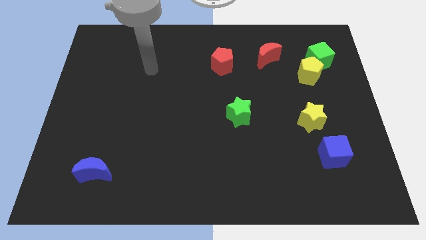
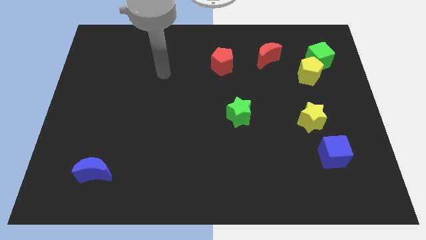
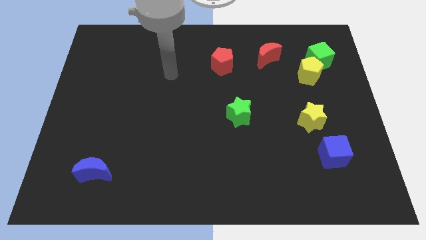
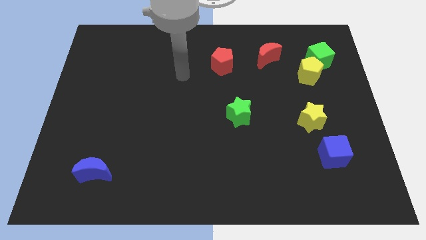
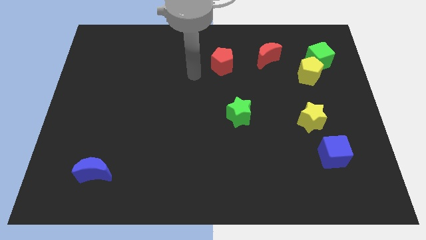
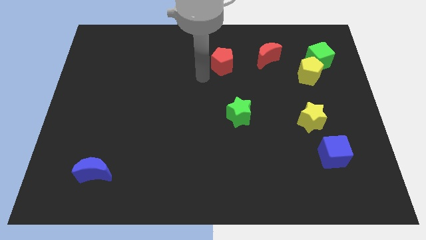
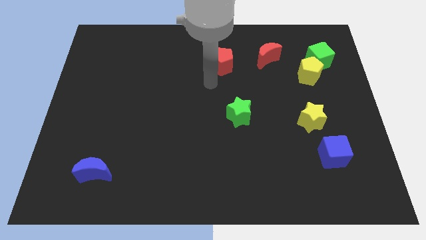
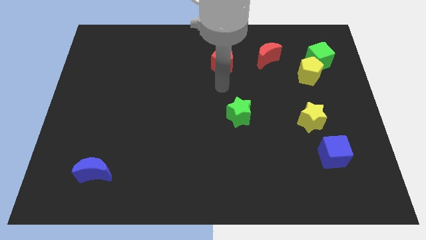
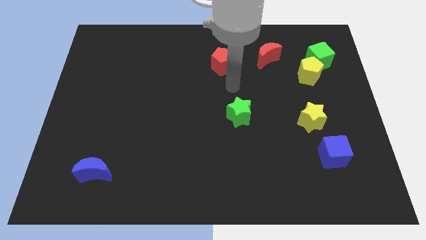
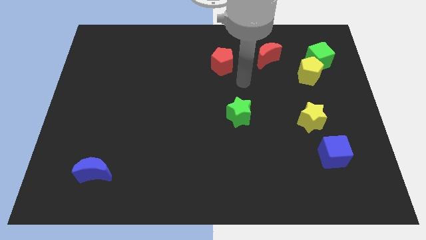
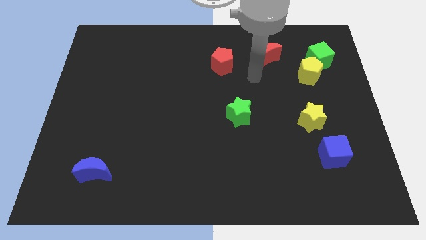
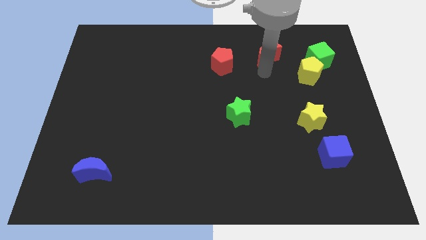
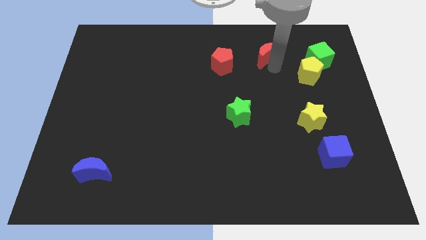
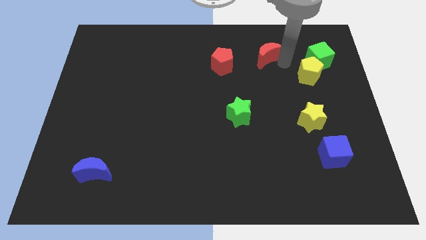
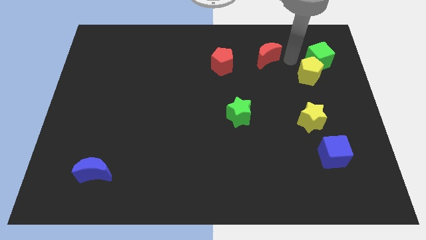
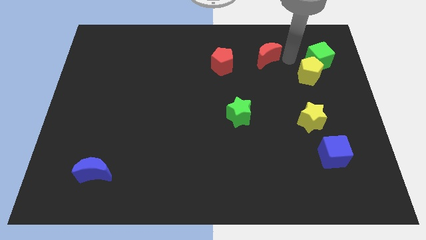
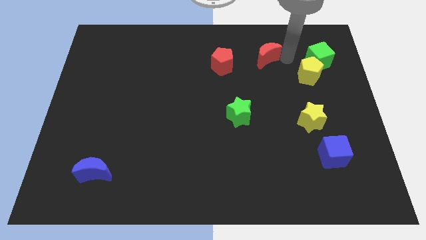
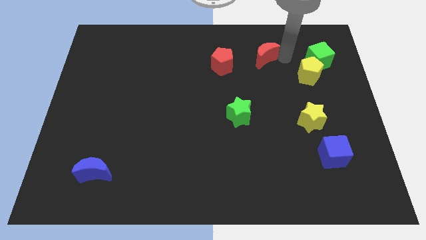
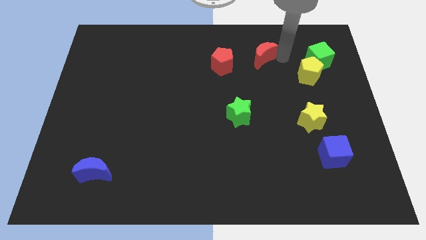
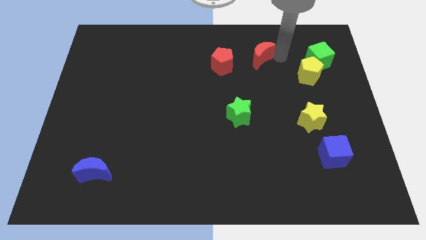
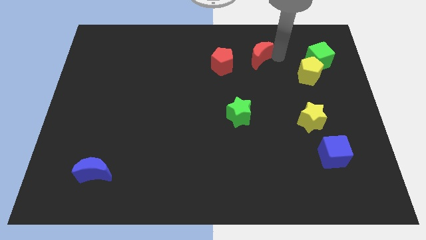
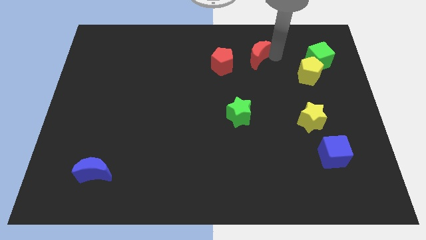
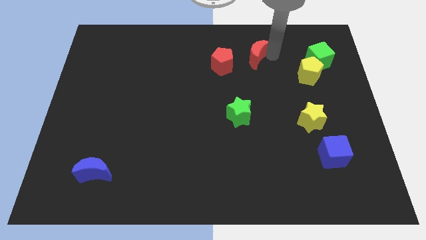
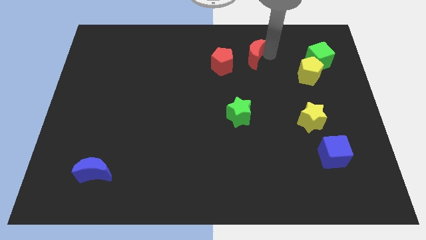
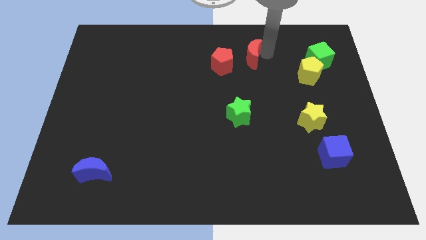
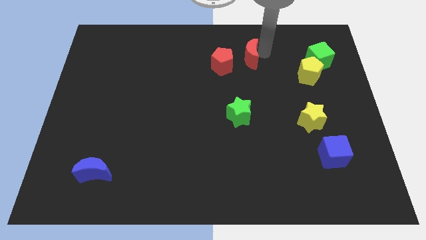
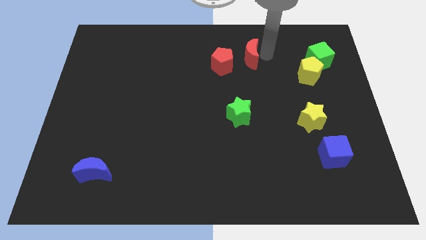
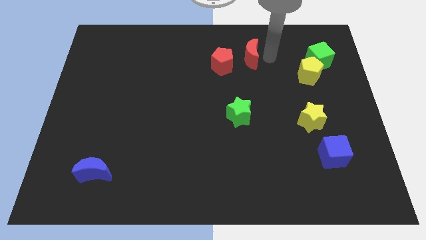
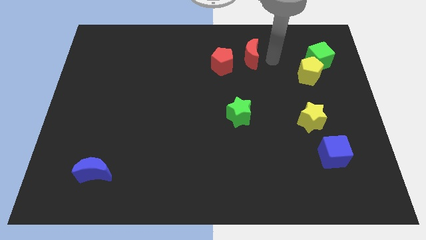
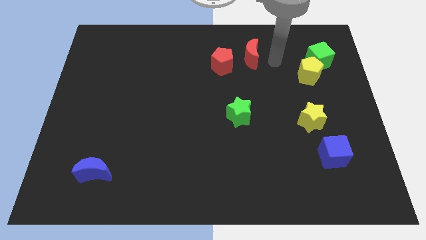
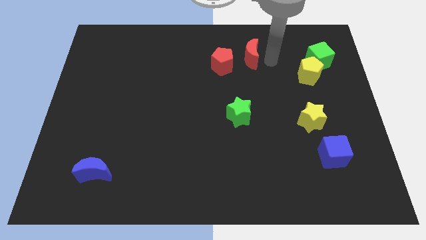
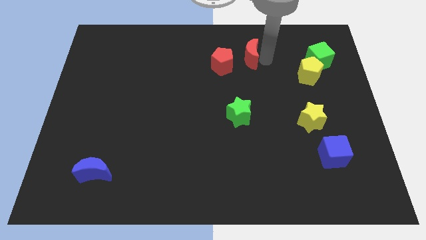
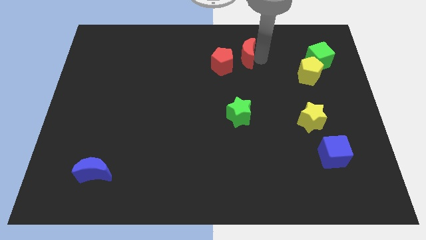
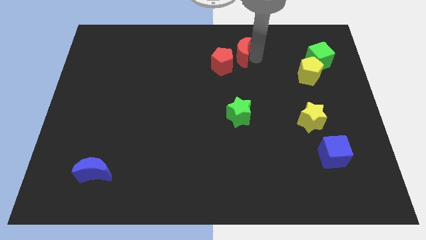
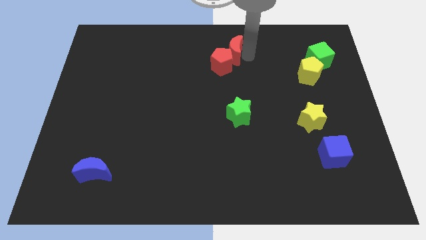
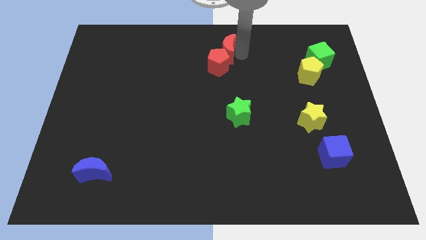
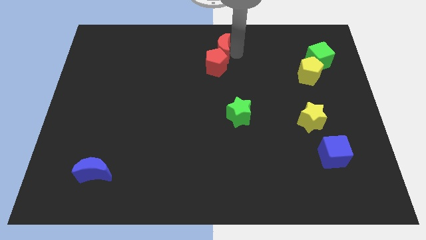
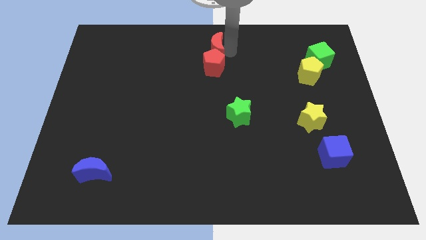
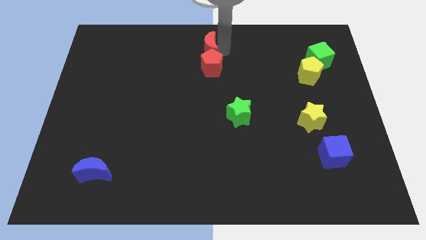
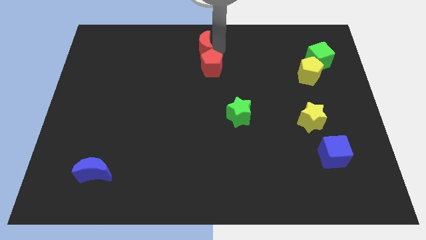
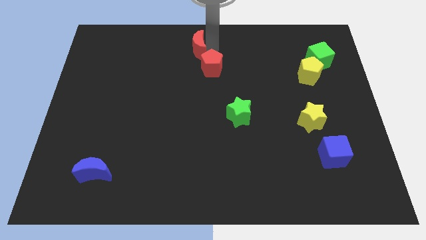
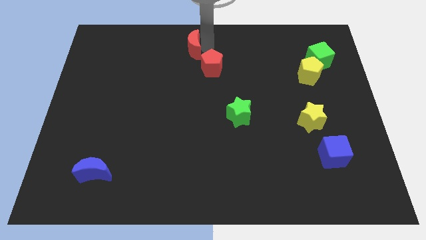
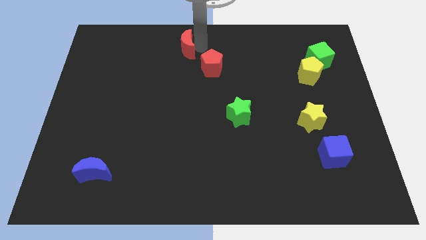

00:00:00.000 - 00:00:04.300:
slide the red moon left

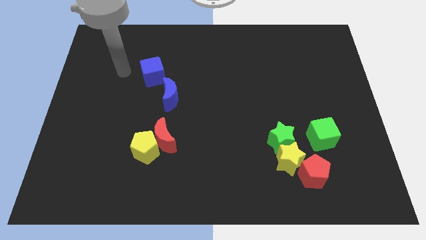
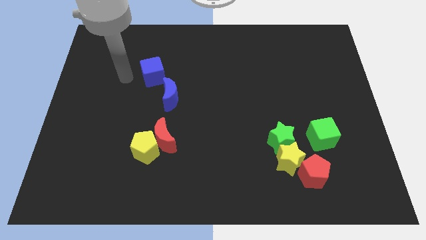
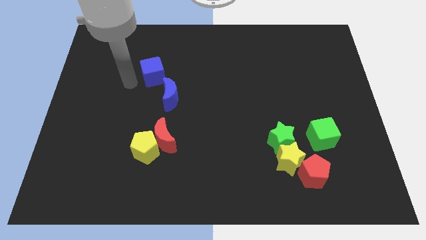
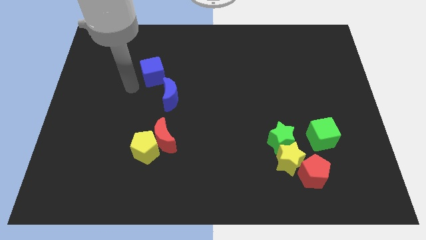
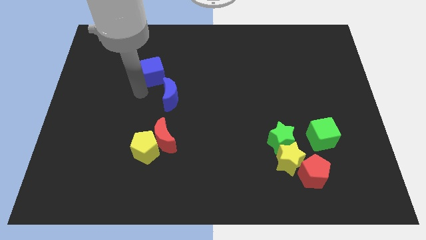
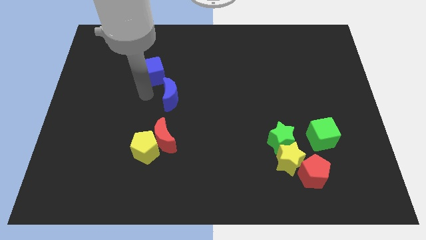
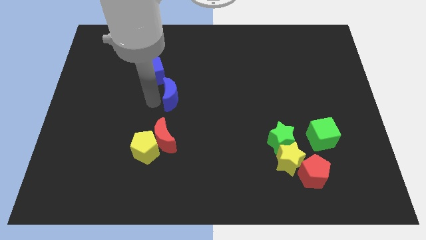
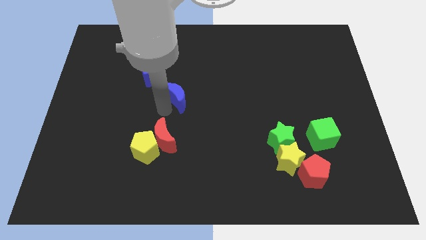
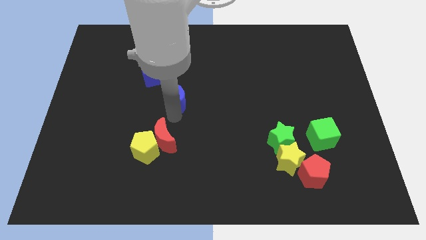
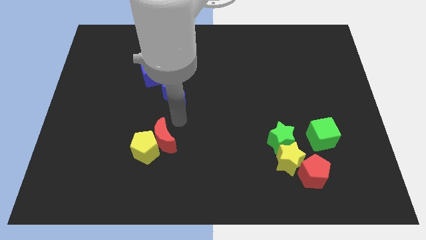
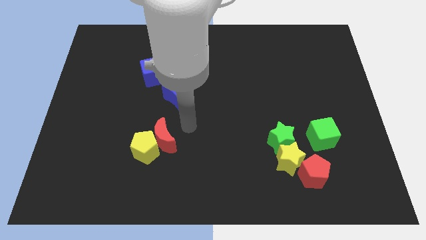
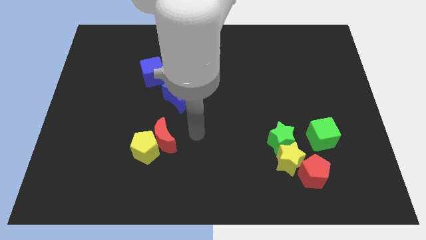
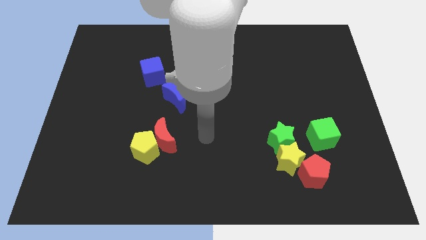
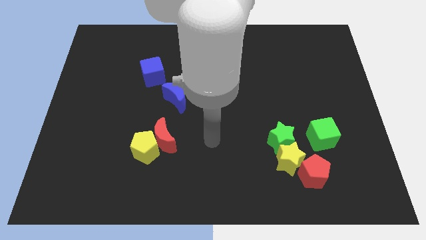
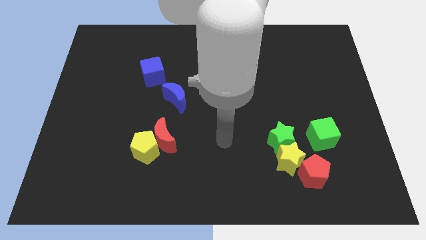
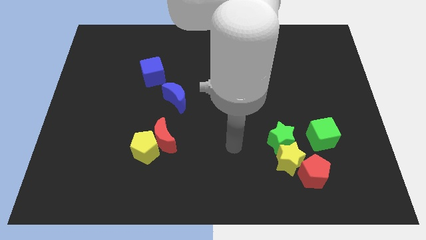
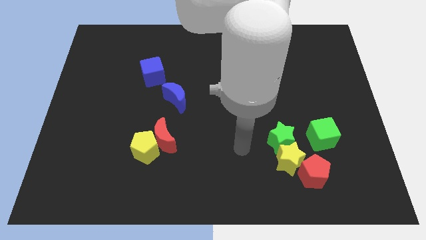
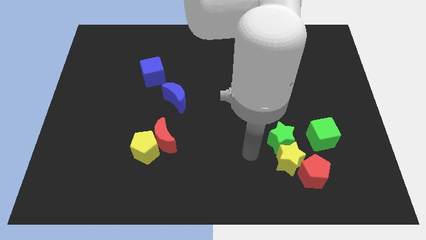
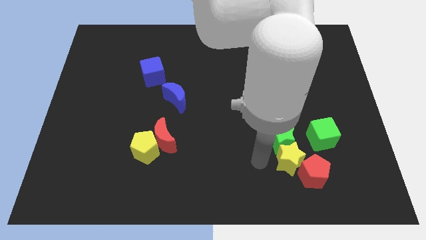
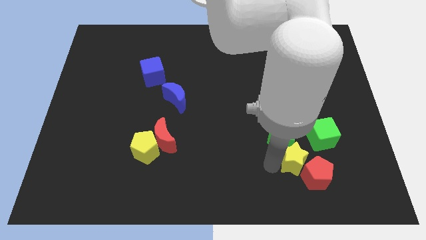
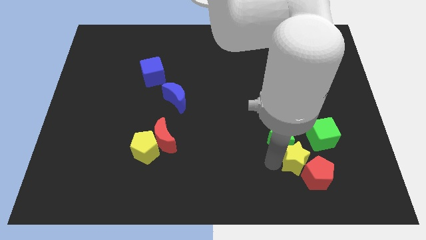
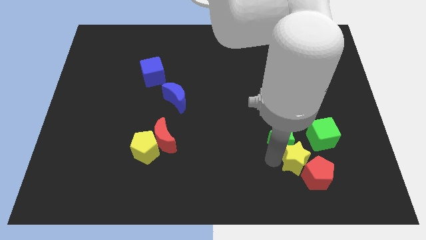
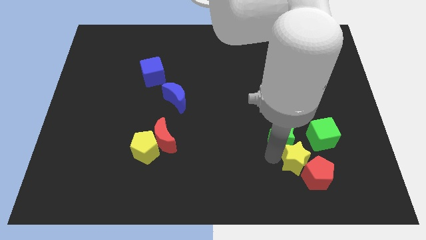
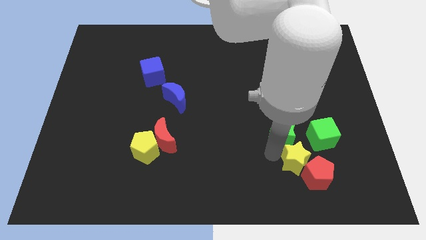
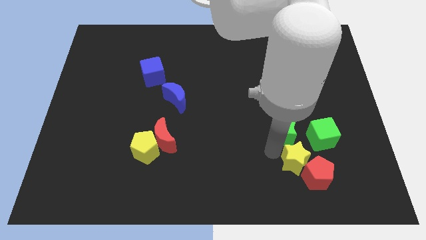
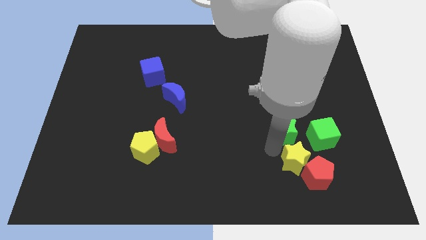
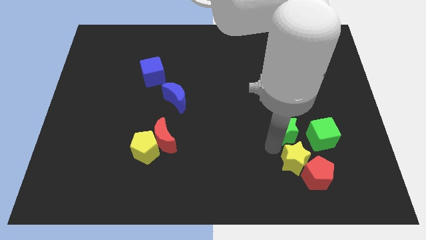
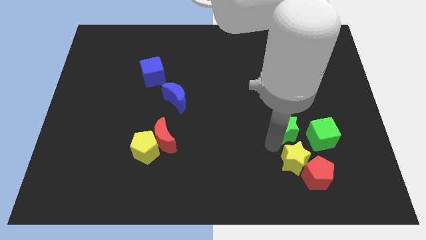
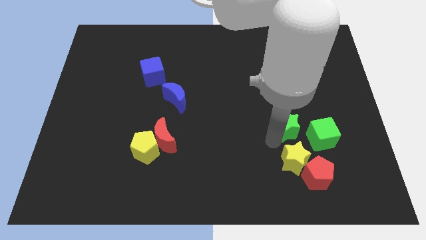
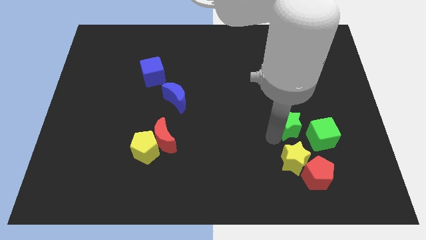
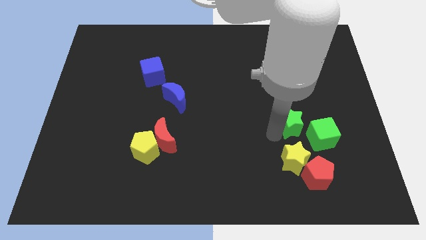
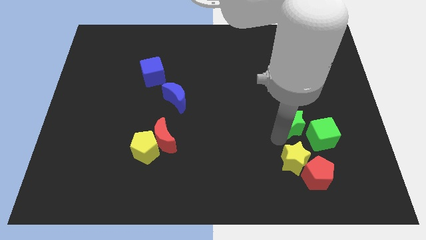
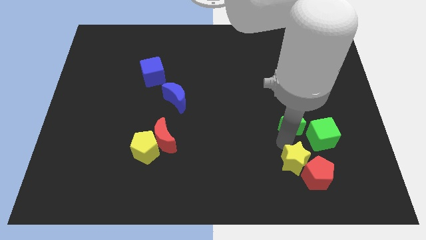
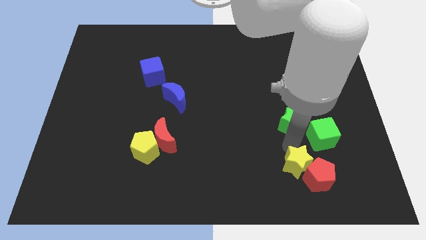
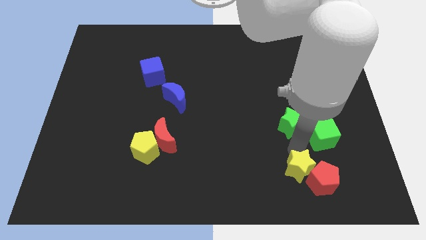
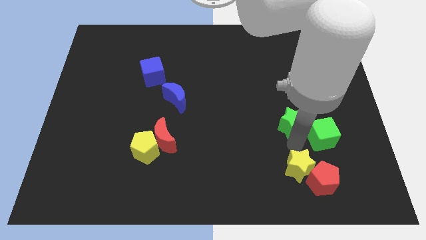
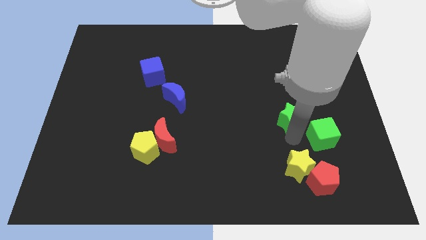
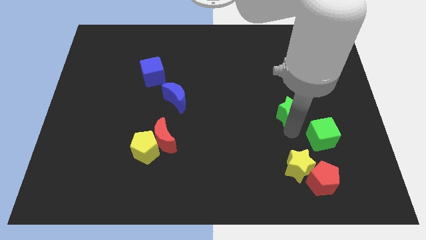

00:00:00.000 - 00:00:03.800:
push the green star up slightly

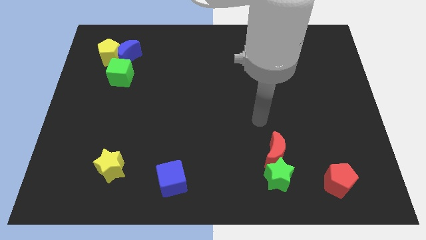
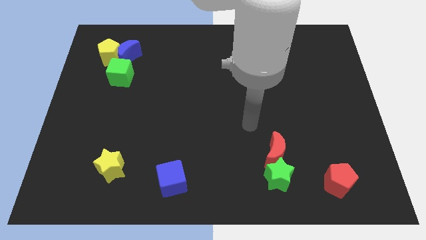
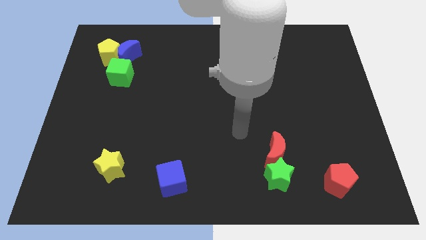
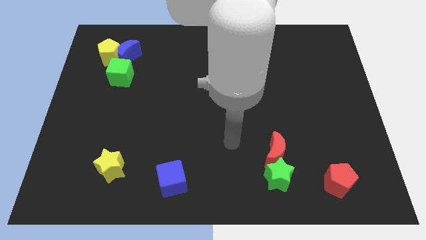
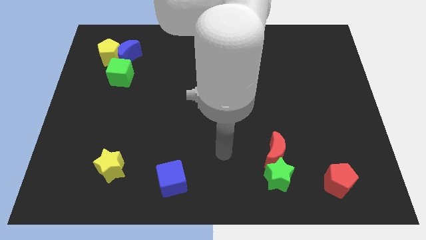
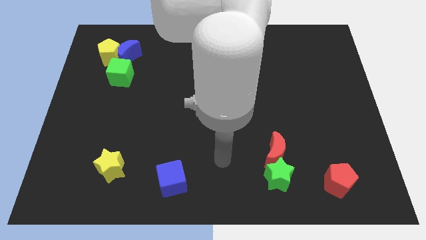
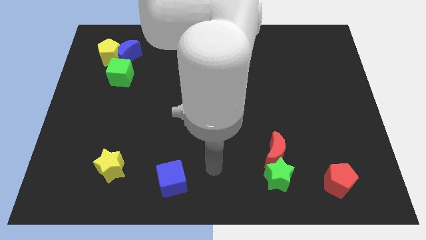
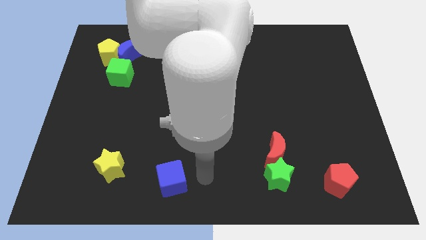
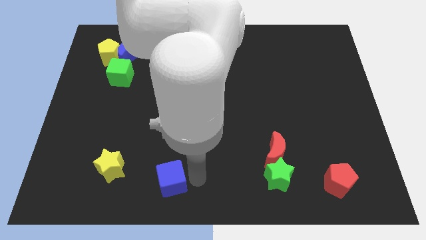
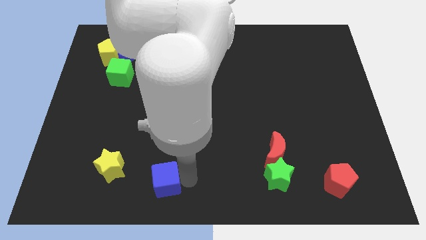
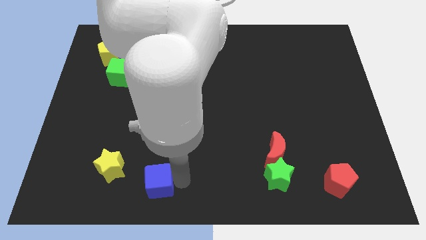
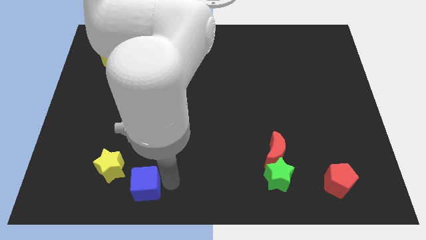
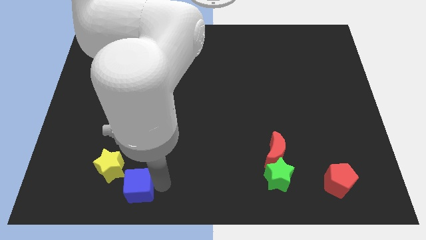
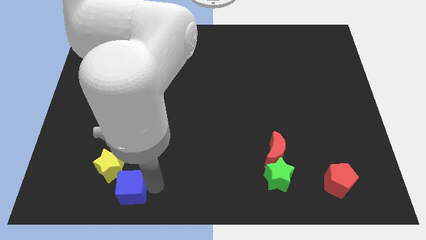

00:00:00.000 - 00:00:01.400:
move the blue cube a little to the left
